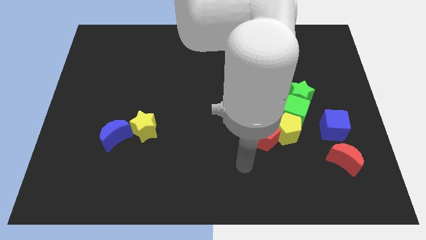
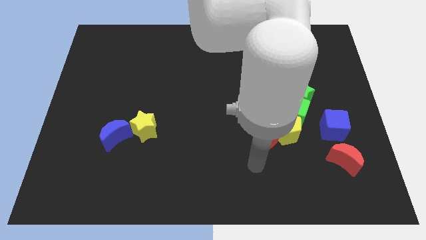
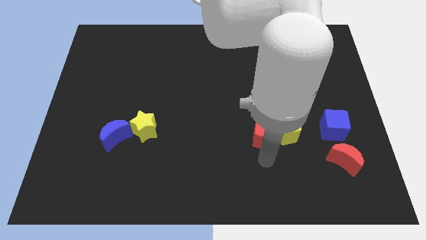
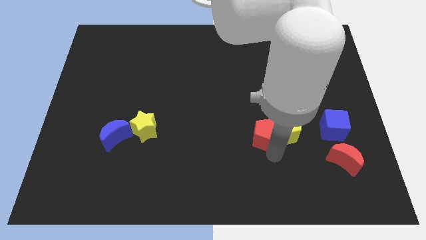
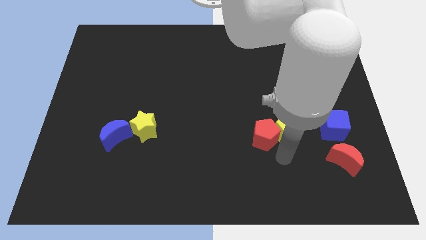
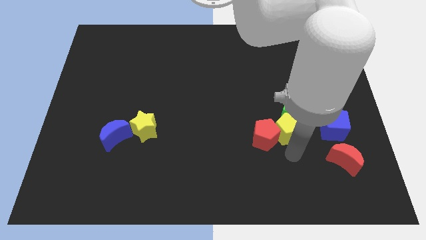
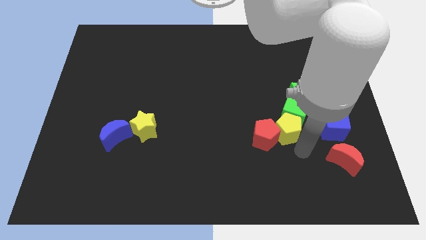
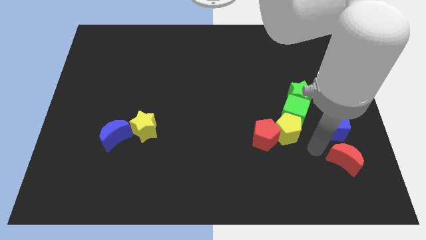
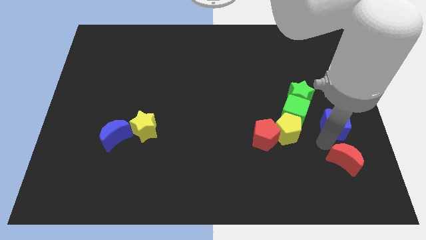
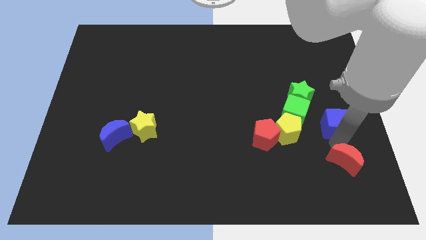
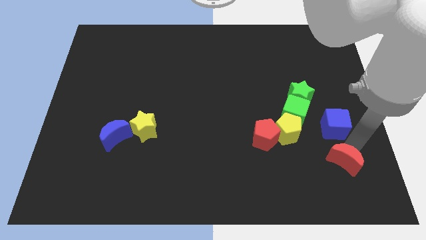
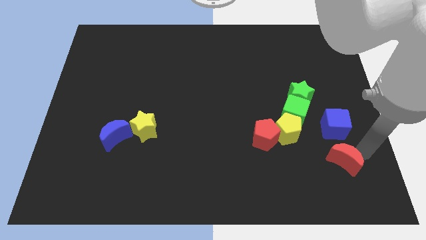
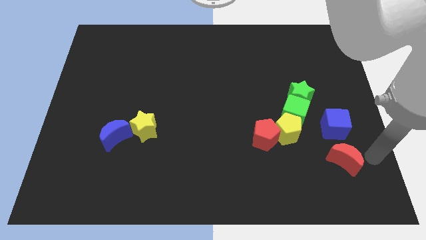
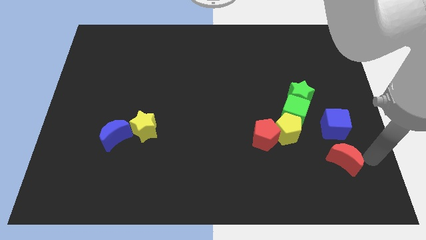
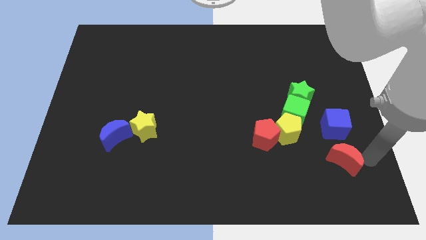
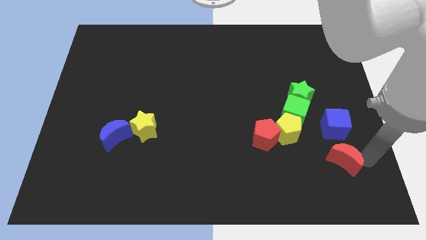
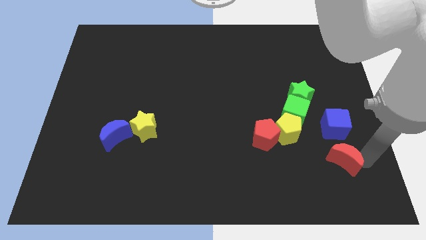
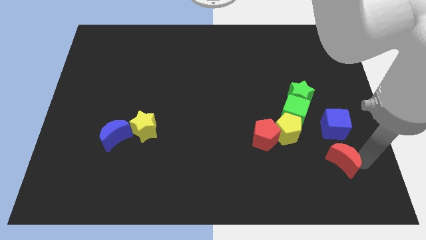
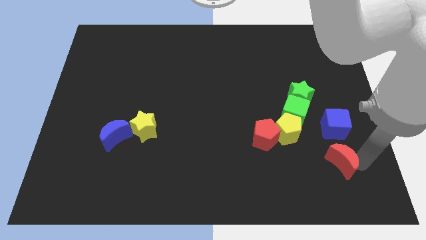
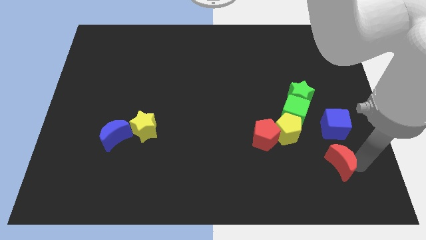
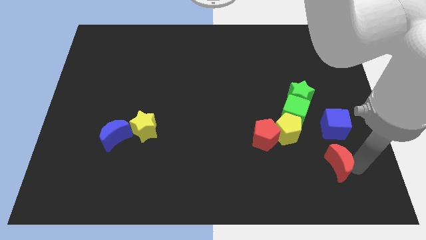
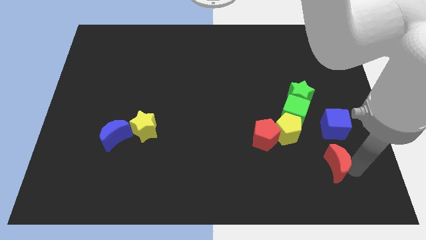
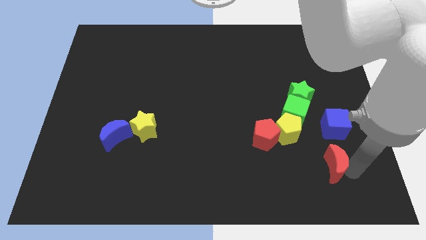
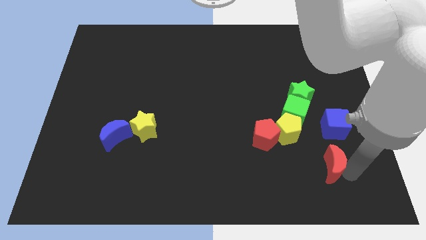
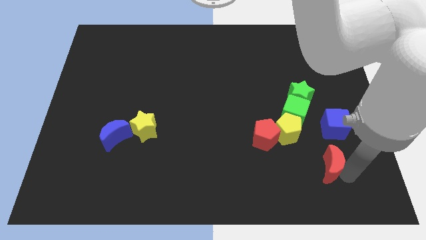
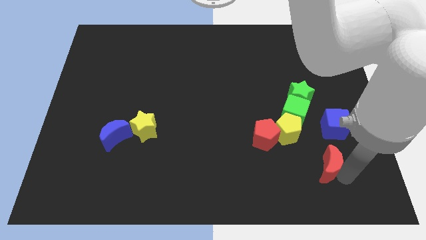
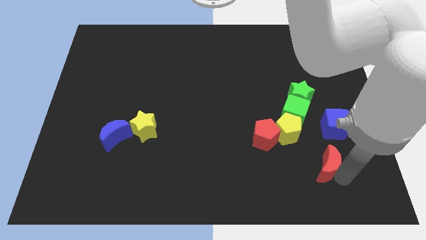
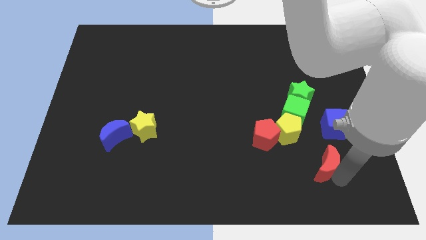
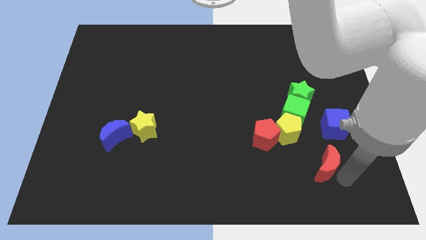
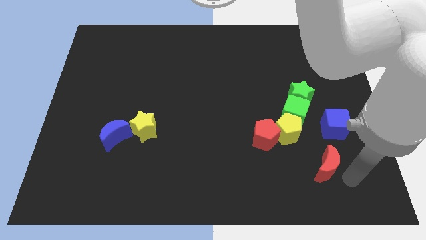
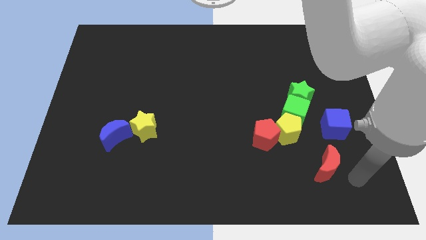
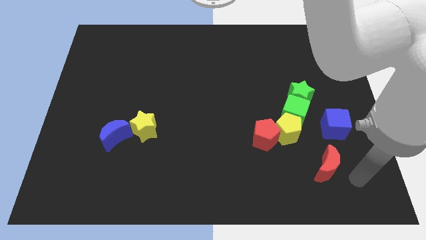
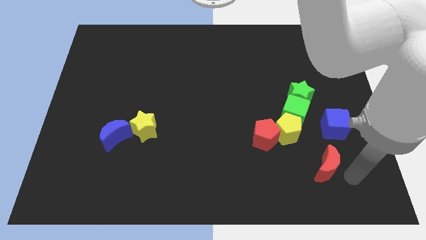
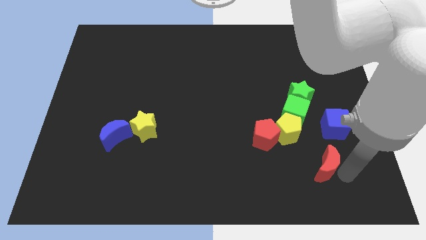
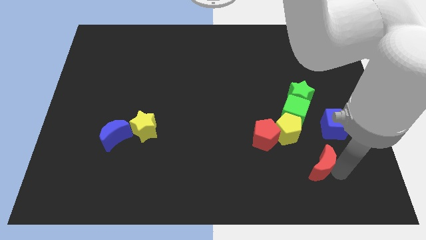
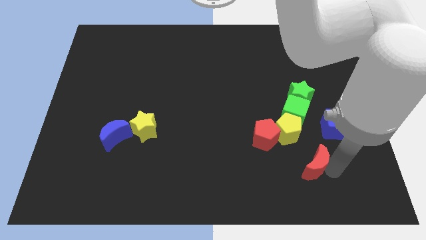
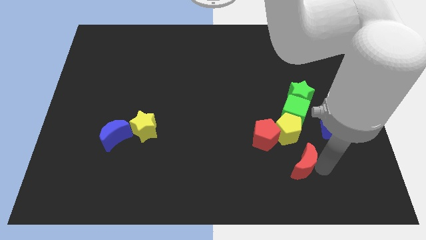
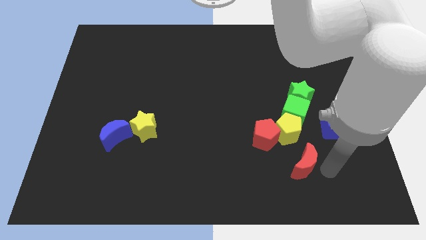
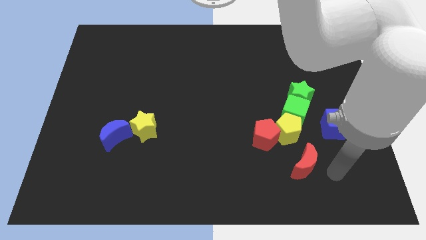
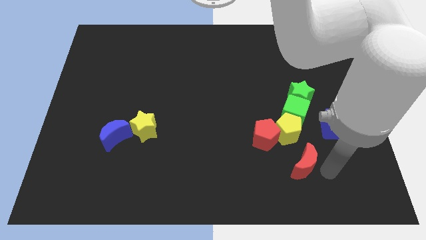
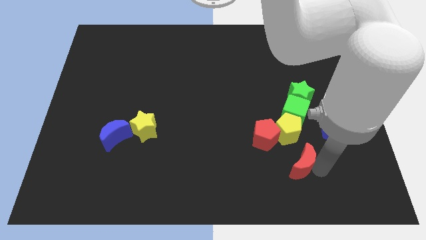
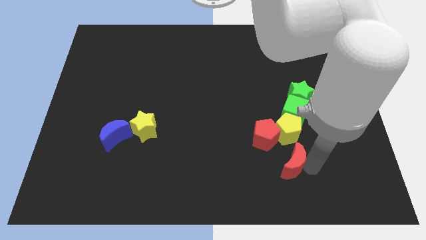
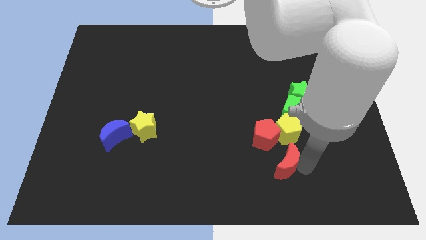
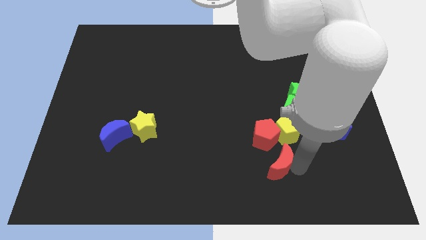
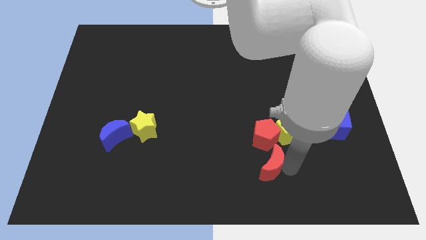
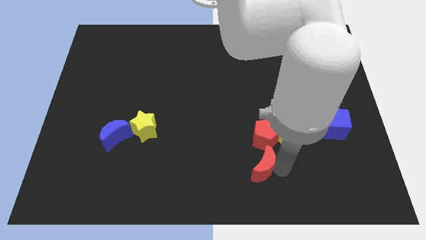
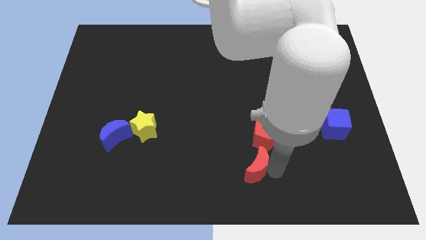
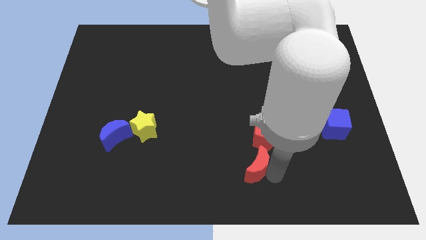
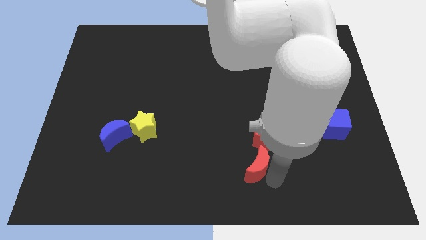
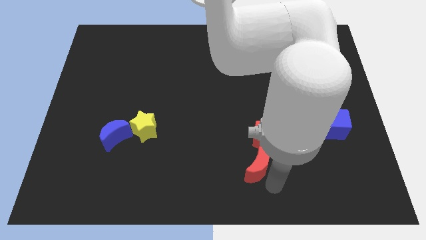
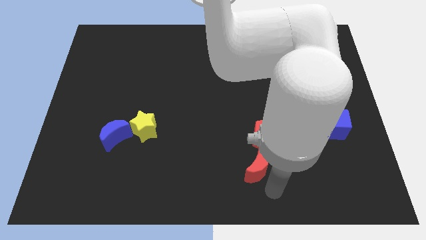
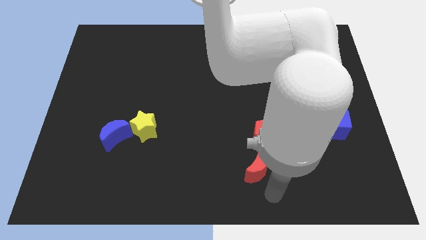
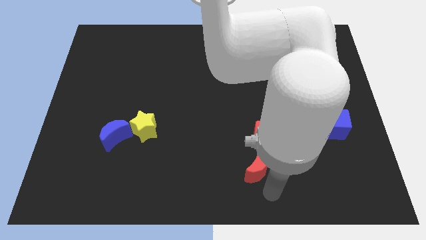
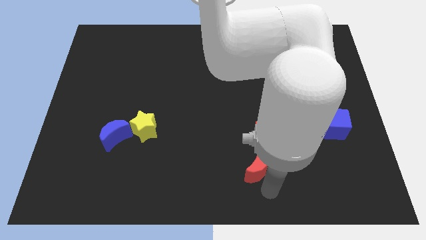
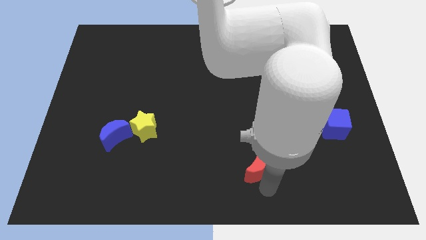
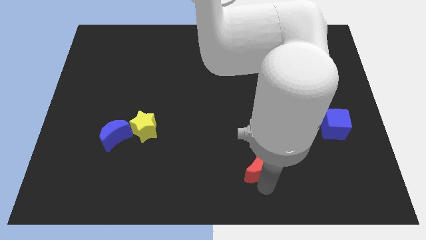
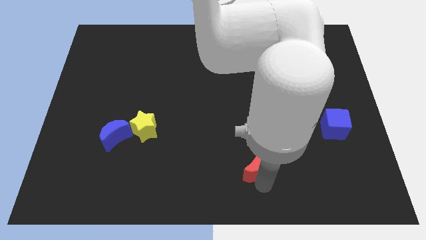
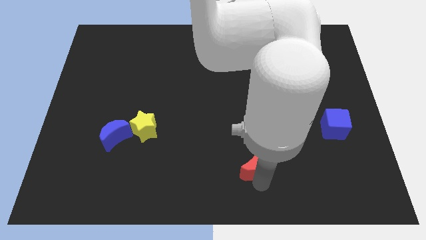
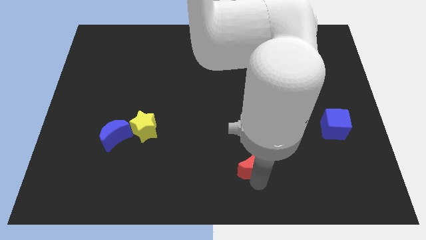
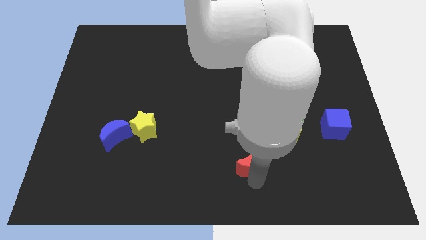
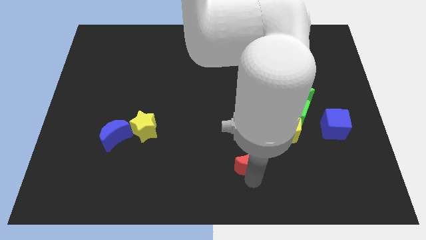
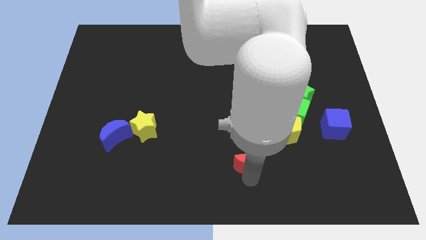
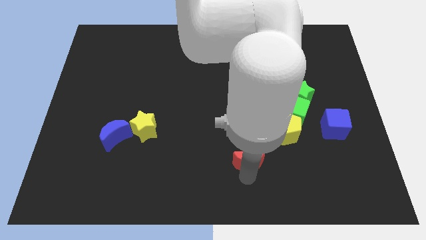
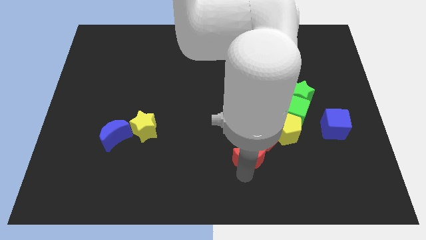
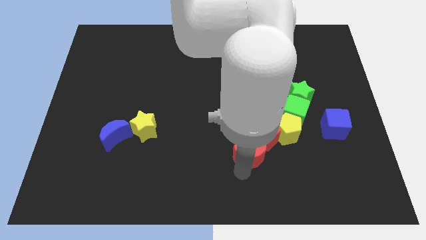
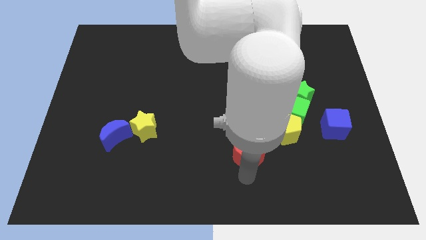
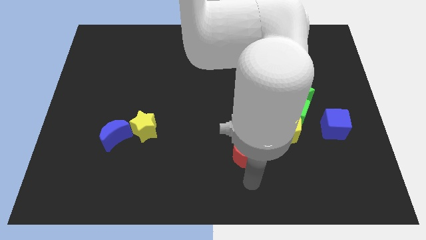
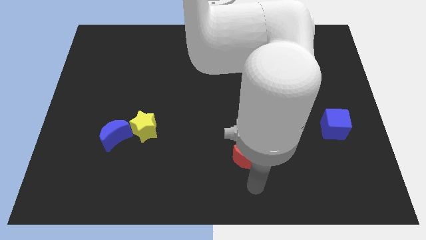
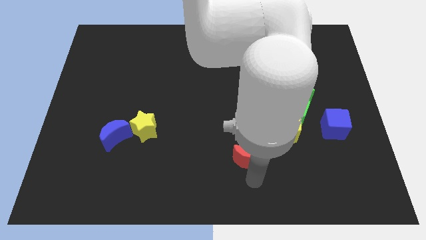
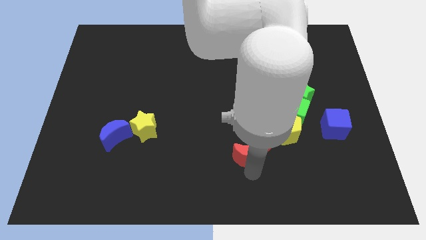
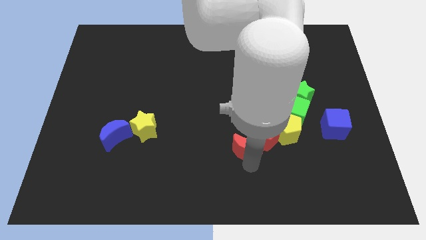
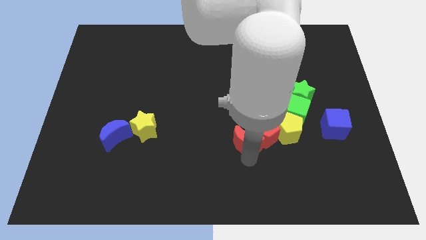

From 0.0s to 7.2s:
slide the red moon somewhat up and left diagonally

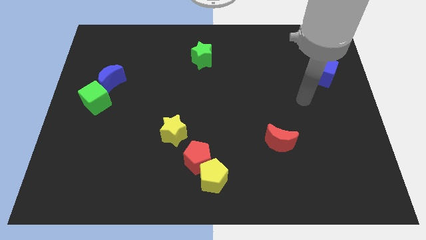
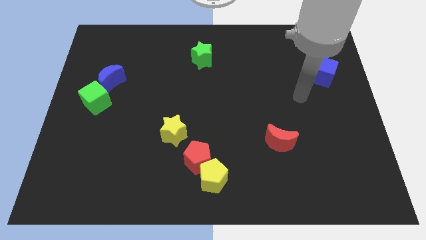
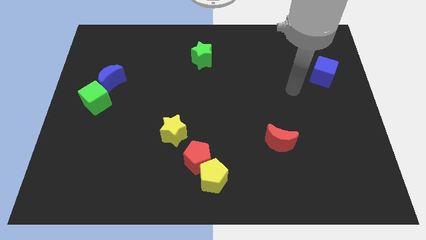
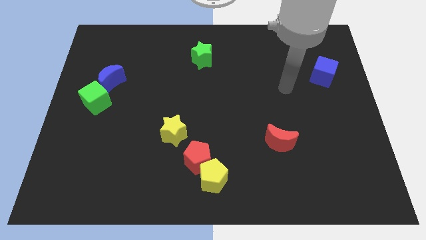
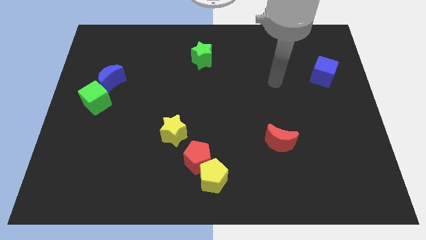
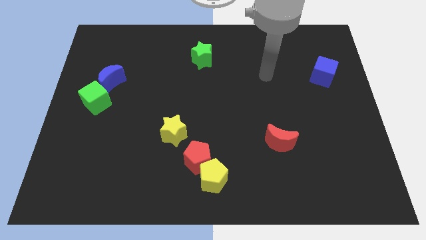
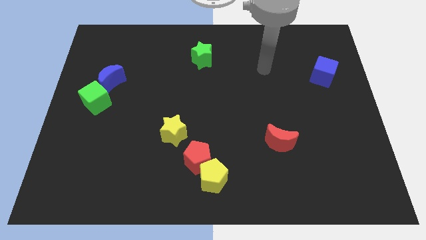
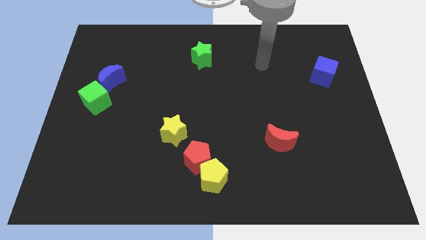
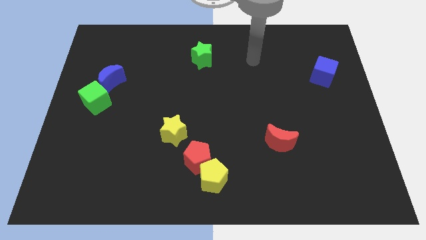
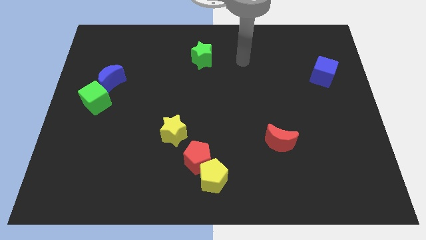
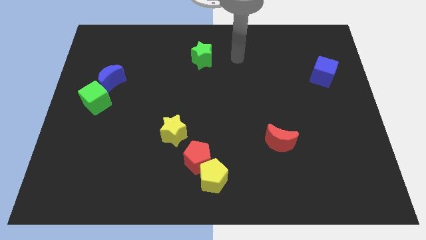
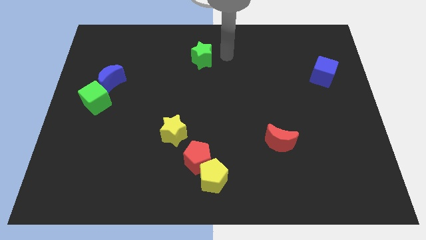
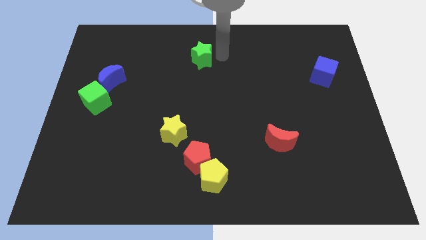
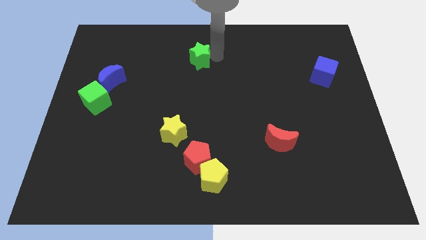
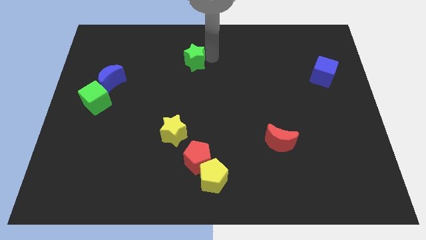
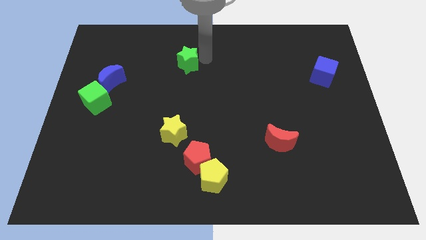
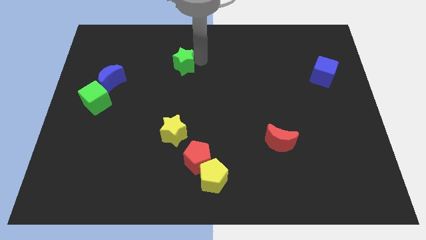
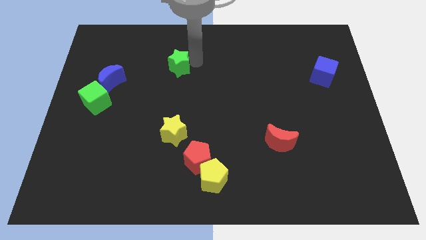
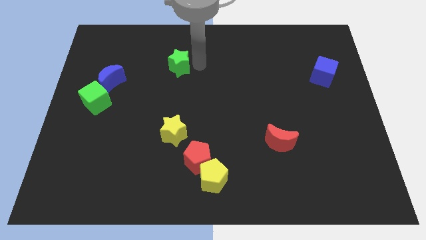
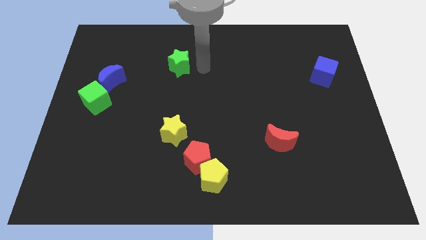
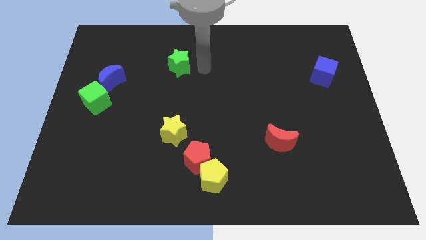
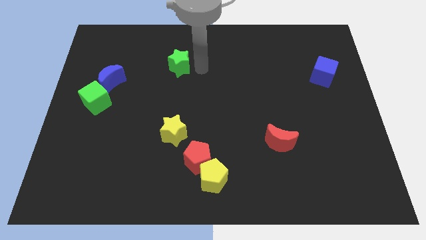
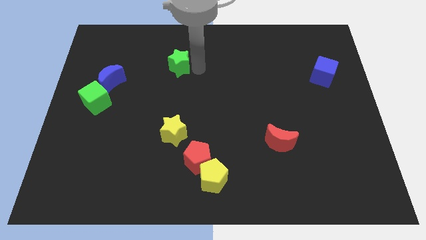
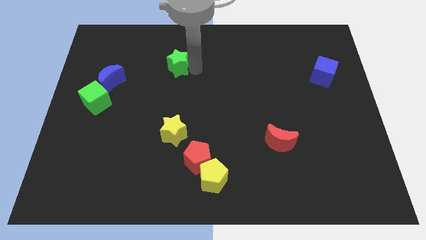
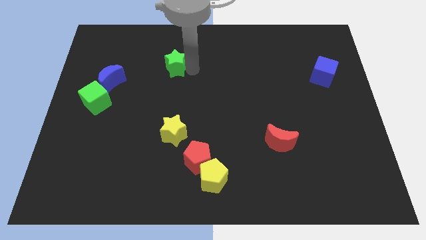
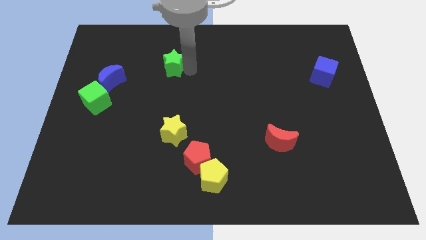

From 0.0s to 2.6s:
slightly push the green star left
